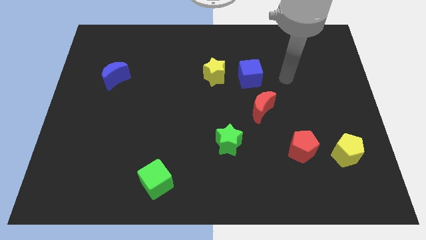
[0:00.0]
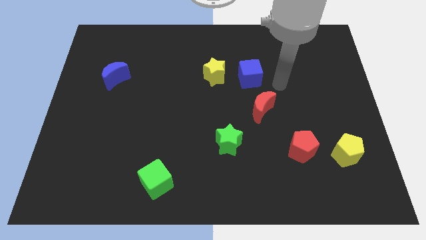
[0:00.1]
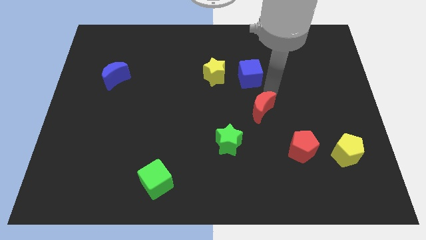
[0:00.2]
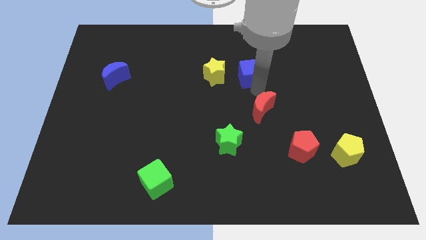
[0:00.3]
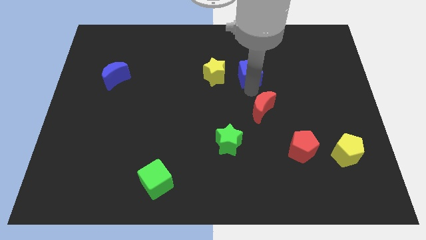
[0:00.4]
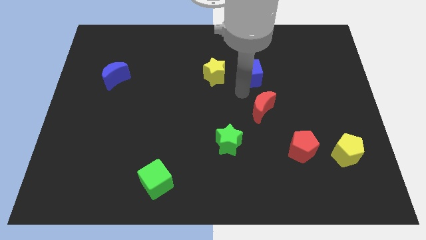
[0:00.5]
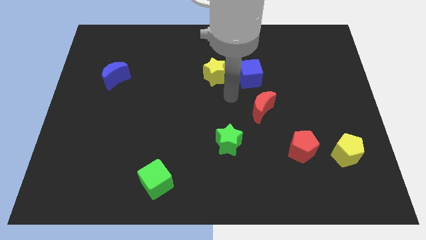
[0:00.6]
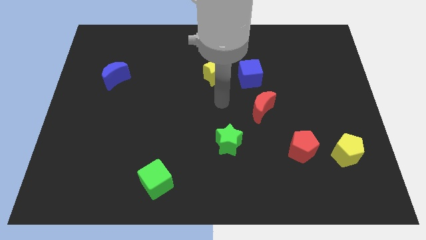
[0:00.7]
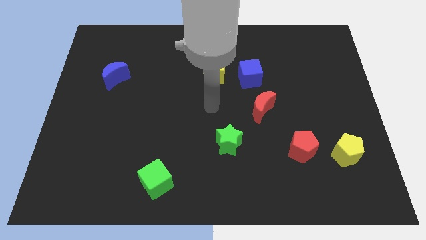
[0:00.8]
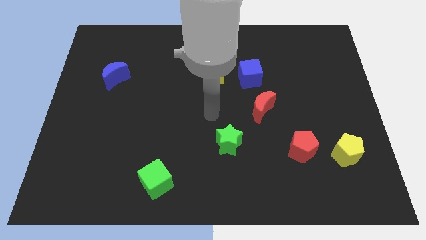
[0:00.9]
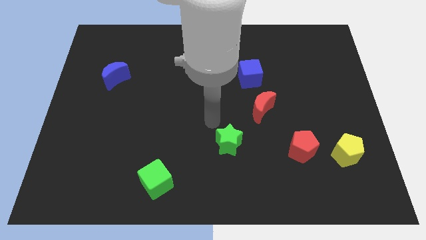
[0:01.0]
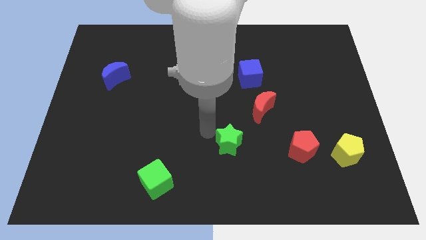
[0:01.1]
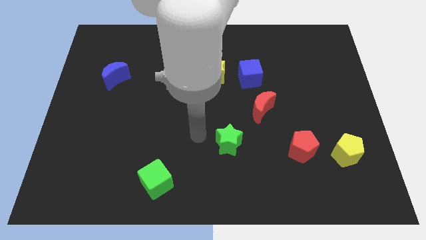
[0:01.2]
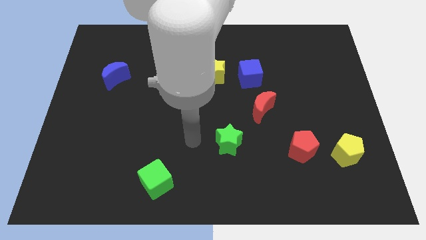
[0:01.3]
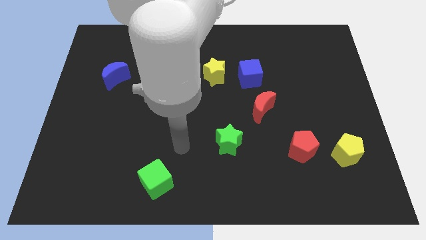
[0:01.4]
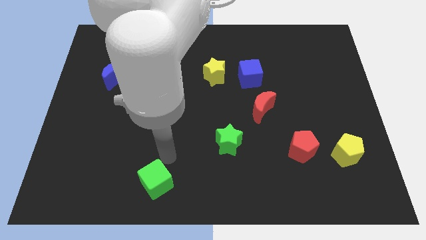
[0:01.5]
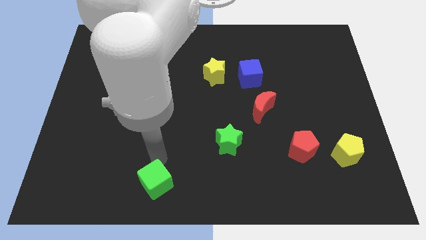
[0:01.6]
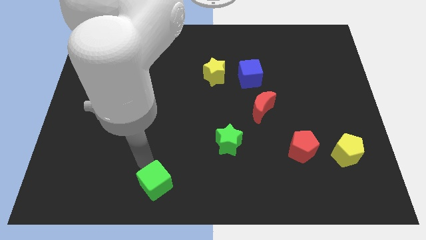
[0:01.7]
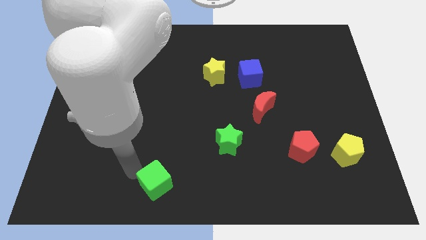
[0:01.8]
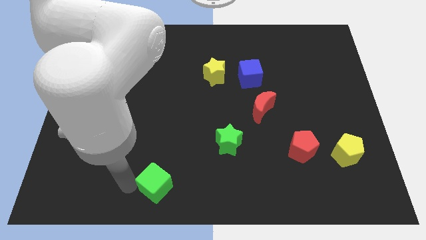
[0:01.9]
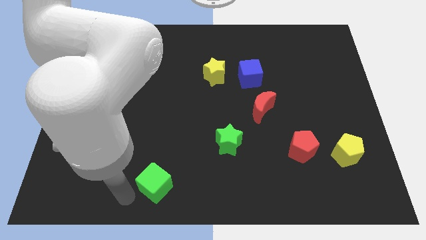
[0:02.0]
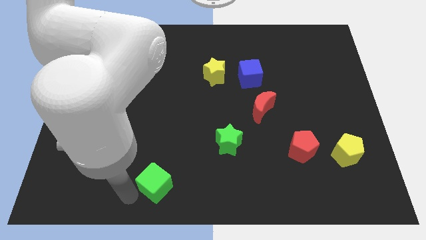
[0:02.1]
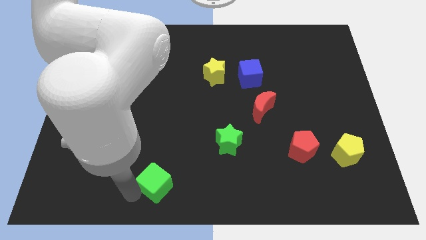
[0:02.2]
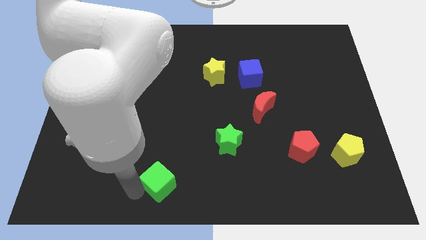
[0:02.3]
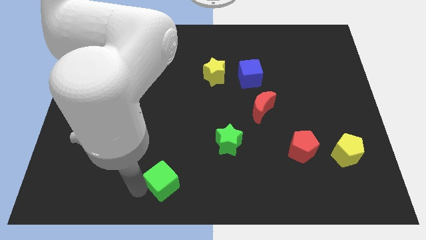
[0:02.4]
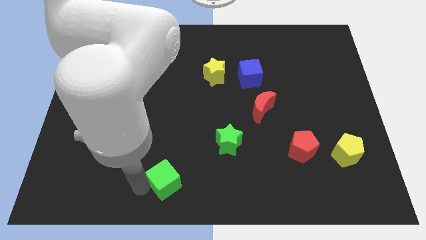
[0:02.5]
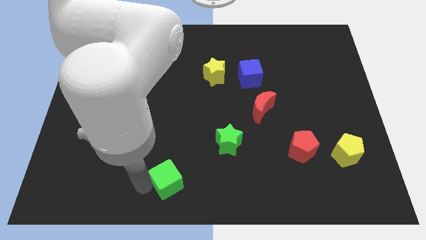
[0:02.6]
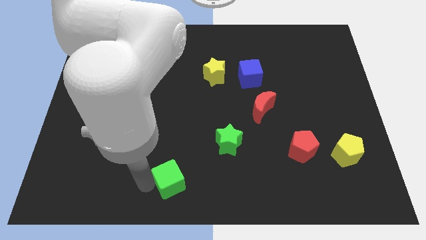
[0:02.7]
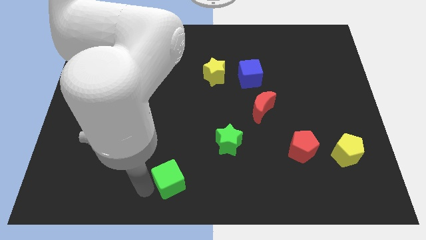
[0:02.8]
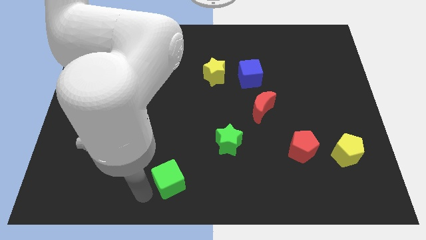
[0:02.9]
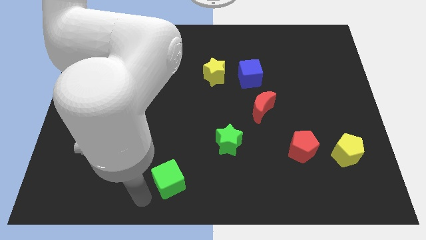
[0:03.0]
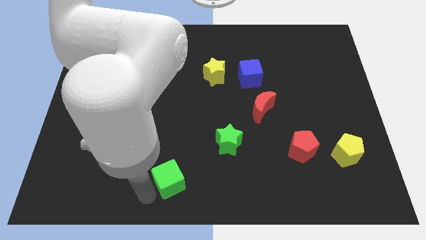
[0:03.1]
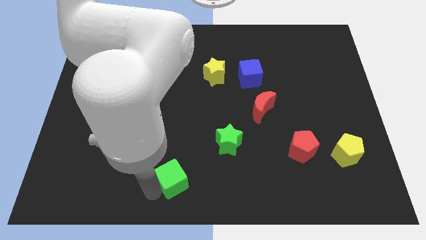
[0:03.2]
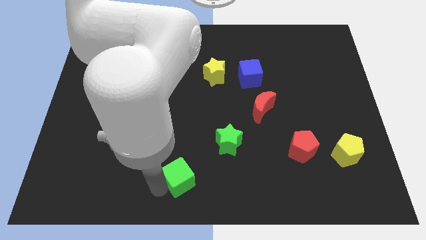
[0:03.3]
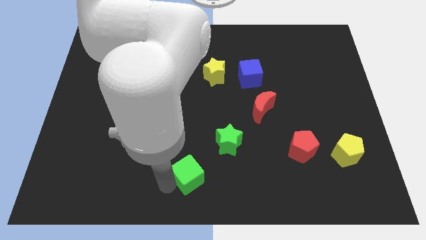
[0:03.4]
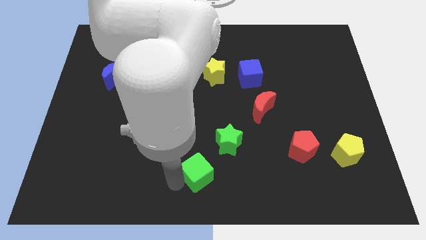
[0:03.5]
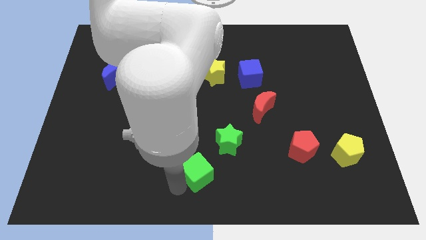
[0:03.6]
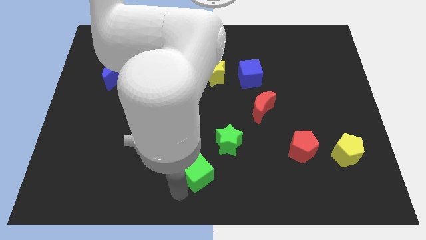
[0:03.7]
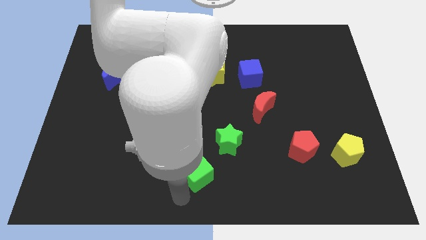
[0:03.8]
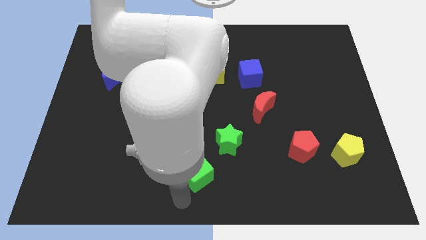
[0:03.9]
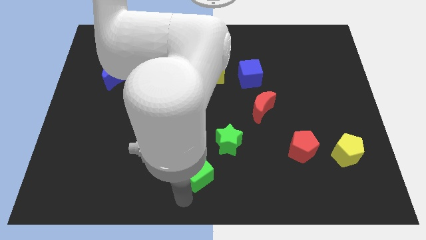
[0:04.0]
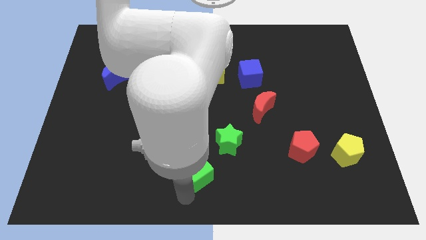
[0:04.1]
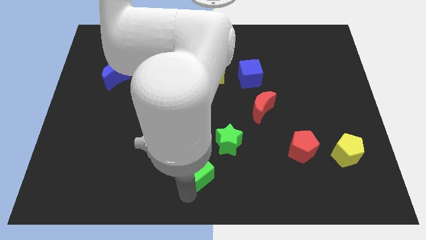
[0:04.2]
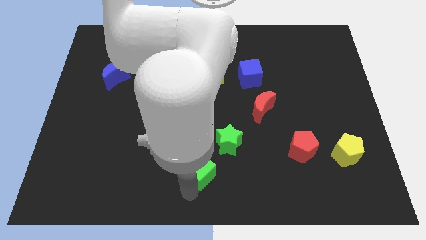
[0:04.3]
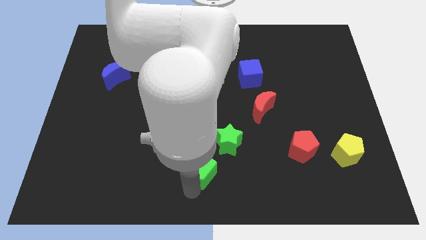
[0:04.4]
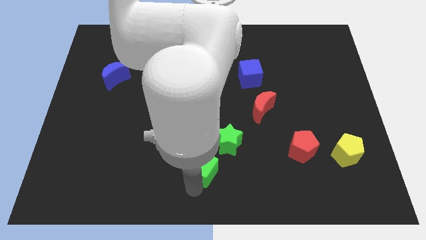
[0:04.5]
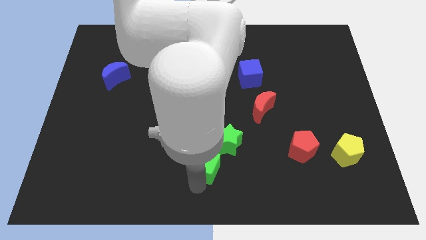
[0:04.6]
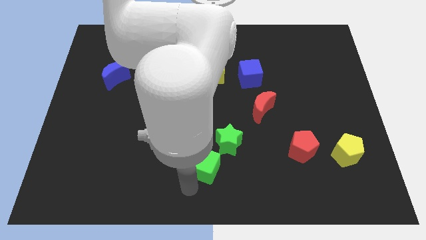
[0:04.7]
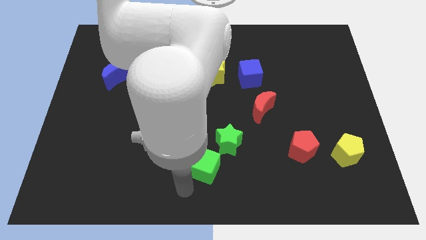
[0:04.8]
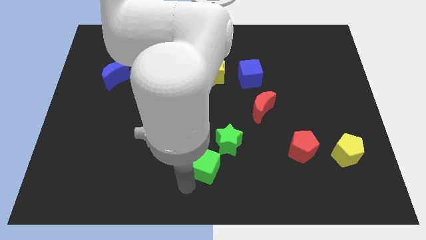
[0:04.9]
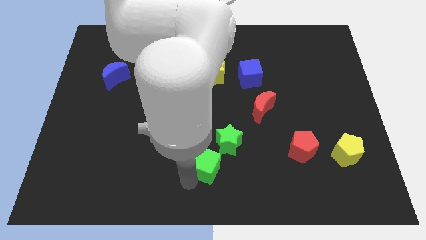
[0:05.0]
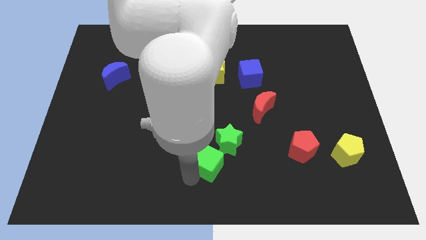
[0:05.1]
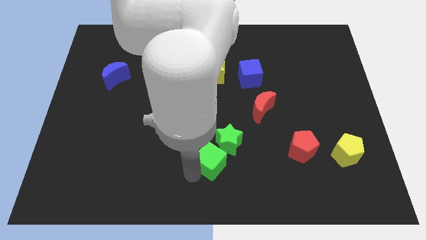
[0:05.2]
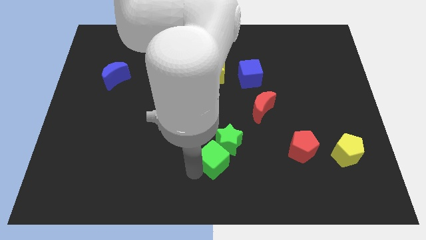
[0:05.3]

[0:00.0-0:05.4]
put the green cube towards the green star

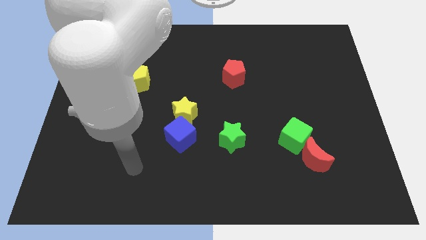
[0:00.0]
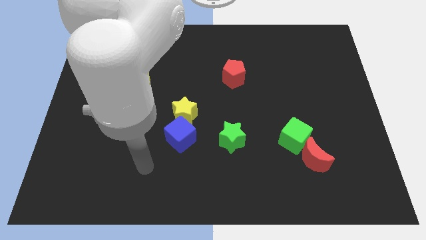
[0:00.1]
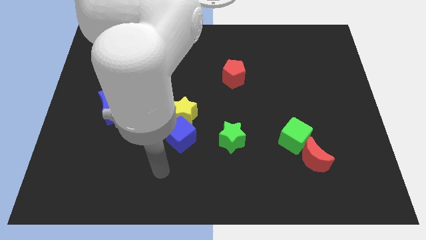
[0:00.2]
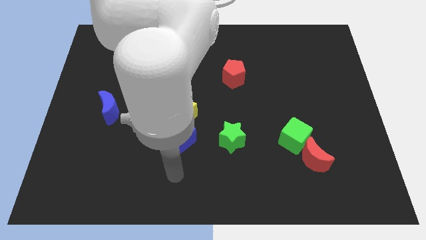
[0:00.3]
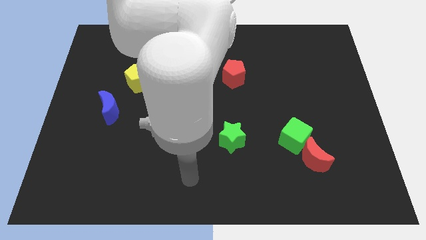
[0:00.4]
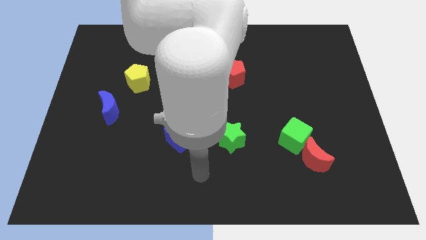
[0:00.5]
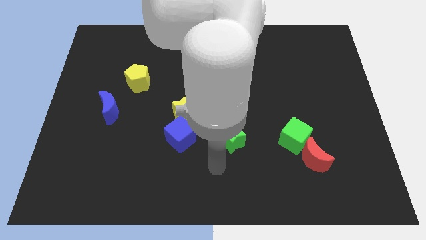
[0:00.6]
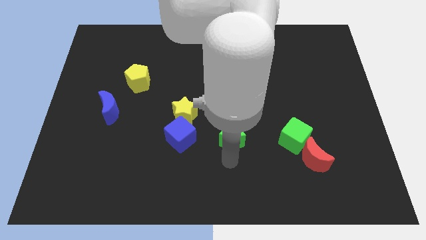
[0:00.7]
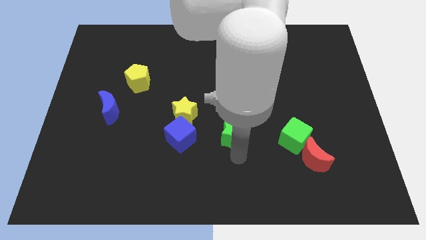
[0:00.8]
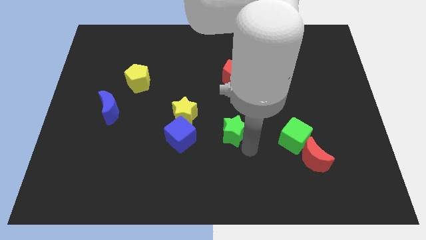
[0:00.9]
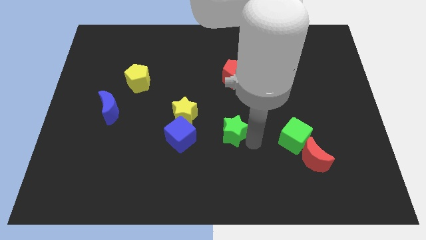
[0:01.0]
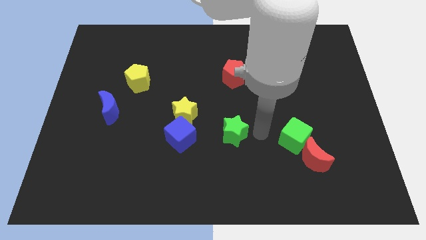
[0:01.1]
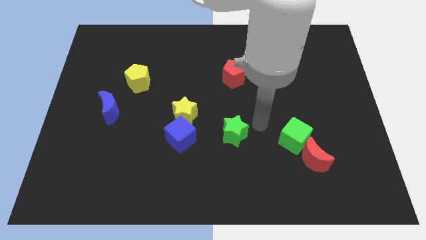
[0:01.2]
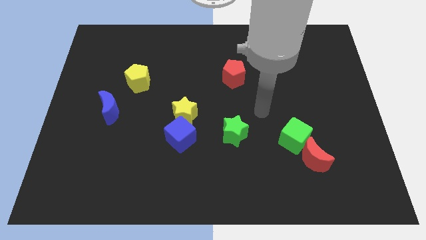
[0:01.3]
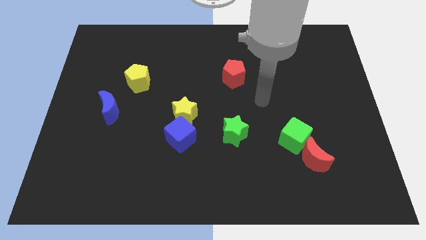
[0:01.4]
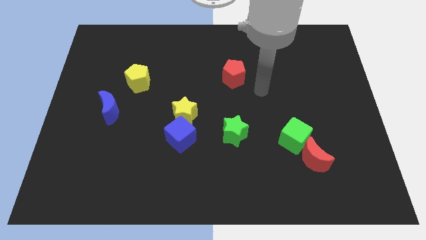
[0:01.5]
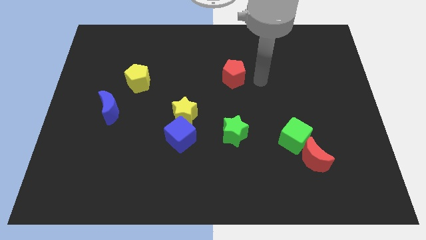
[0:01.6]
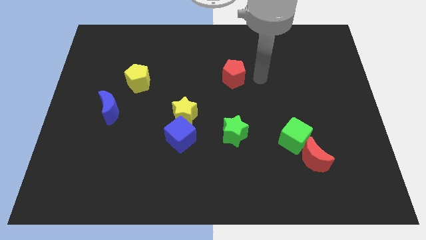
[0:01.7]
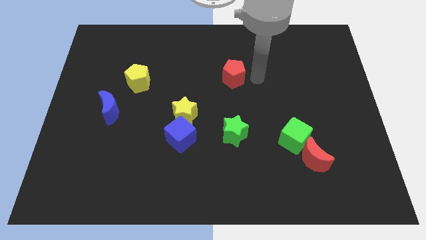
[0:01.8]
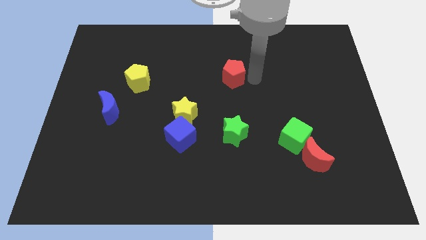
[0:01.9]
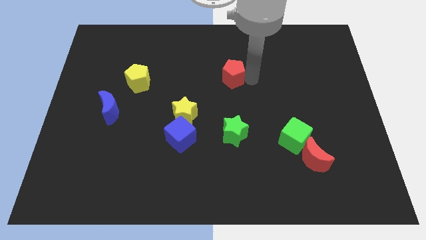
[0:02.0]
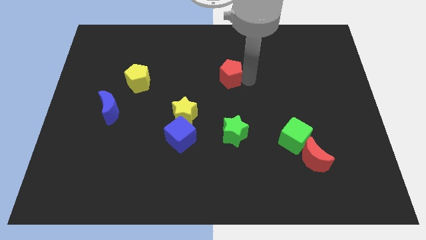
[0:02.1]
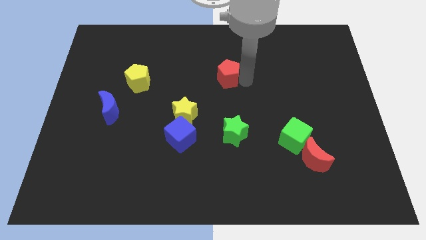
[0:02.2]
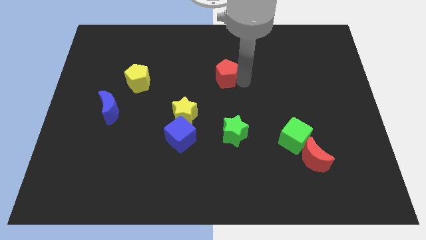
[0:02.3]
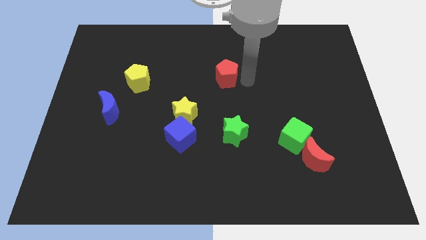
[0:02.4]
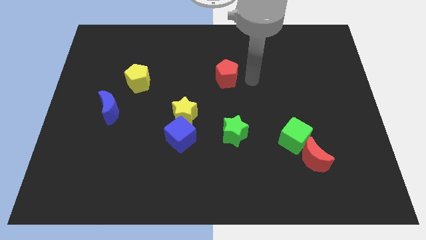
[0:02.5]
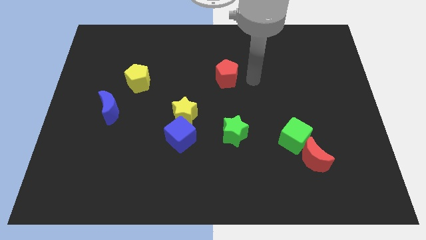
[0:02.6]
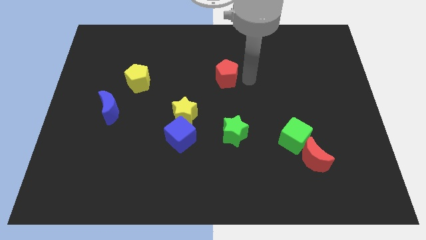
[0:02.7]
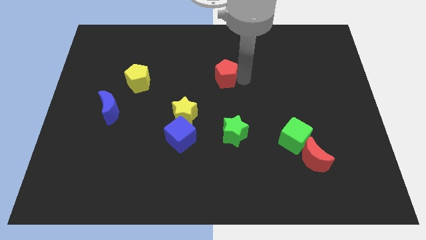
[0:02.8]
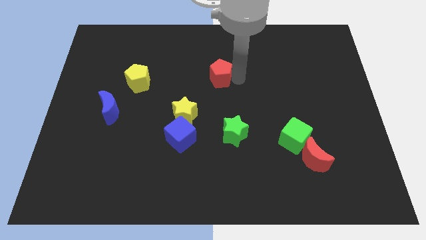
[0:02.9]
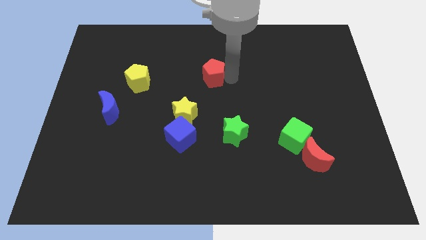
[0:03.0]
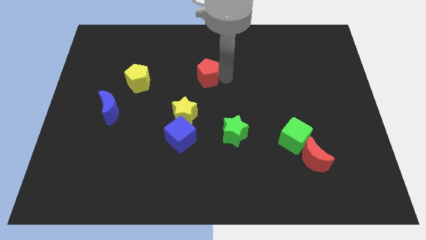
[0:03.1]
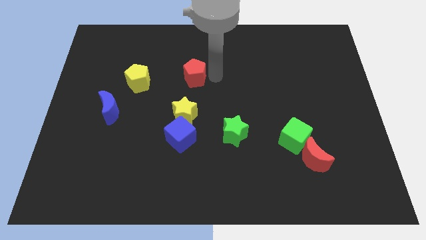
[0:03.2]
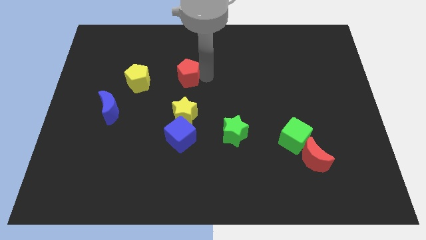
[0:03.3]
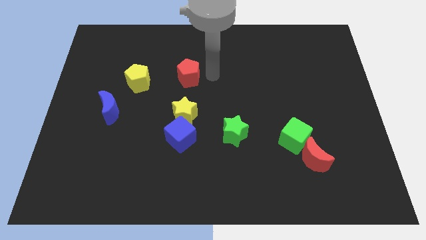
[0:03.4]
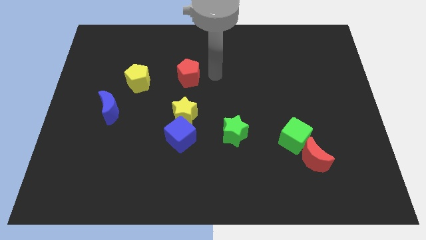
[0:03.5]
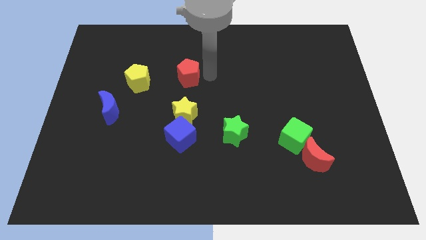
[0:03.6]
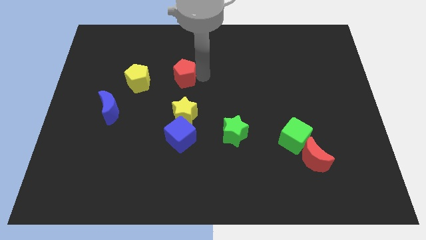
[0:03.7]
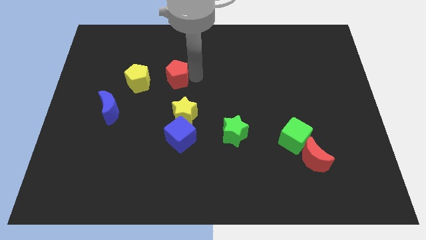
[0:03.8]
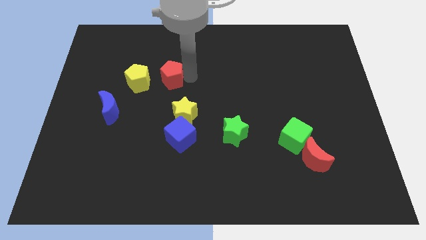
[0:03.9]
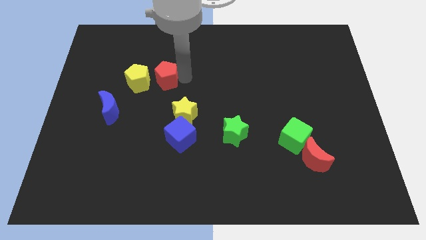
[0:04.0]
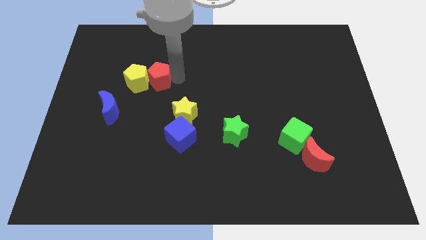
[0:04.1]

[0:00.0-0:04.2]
slide the red pentagon towards the yellow pentagon
